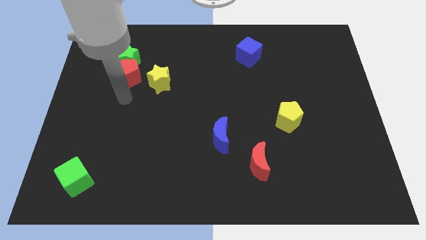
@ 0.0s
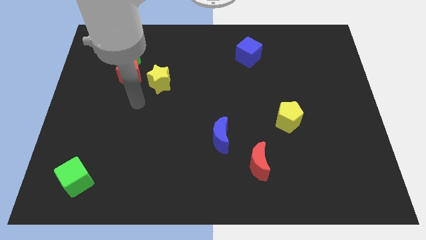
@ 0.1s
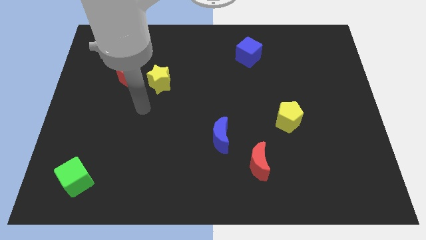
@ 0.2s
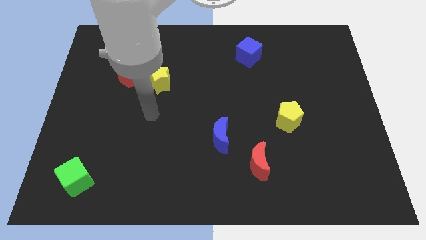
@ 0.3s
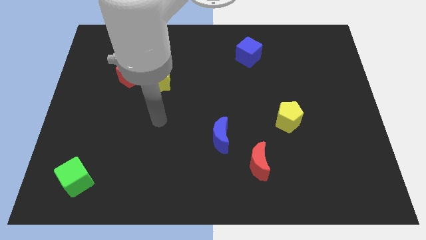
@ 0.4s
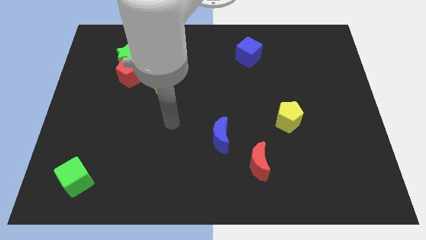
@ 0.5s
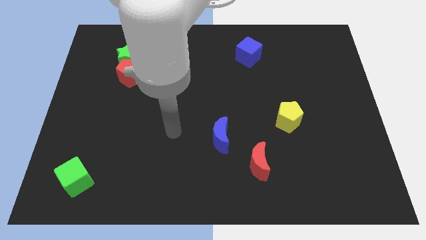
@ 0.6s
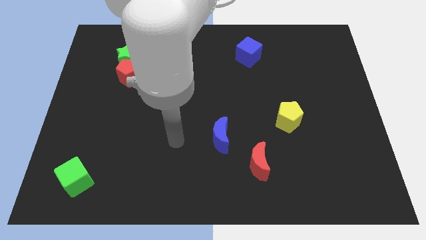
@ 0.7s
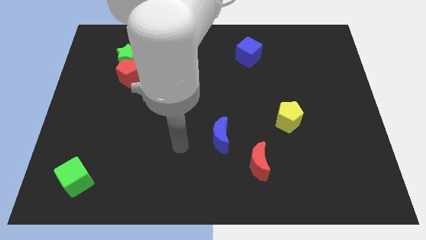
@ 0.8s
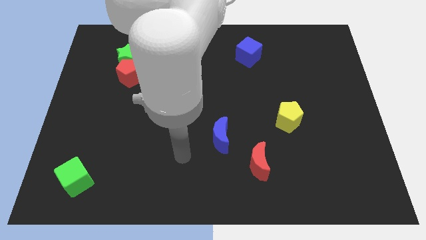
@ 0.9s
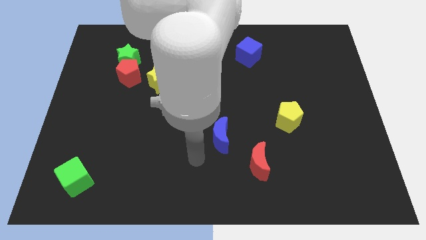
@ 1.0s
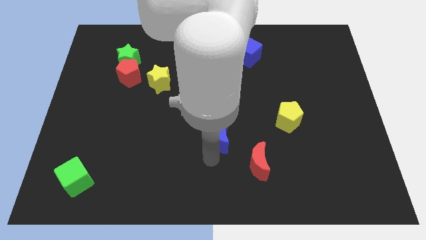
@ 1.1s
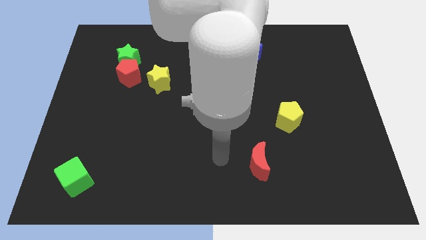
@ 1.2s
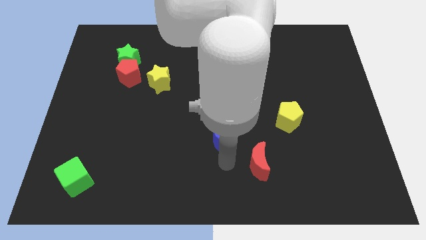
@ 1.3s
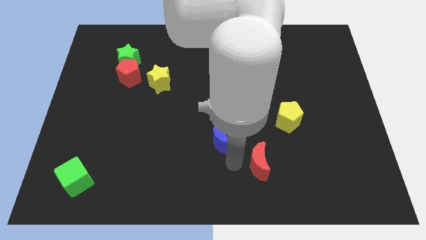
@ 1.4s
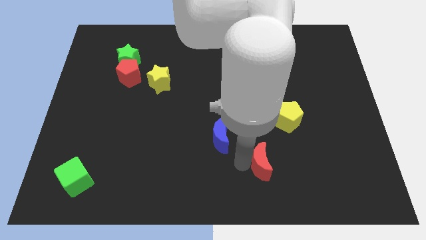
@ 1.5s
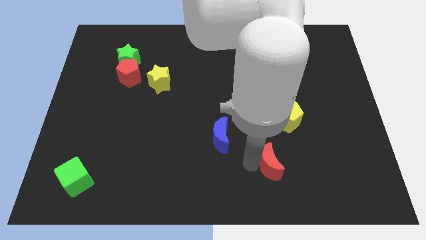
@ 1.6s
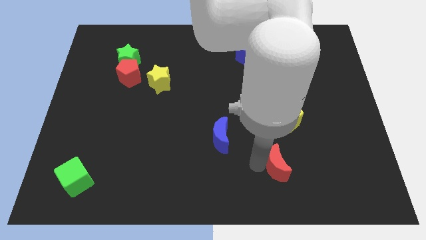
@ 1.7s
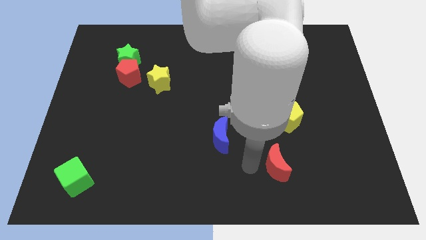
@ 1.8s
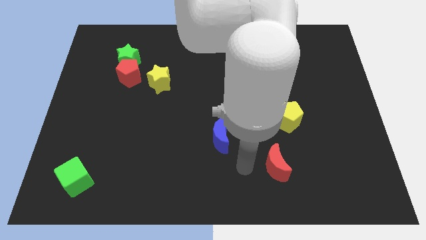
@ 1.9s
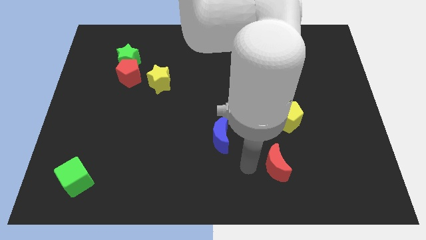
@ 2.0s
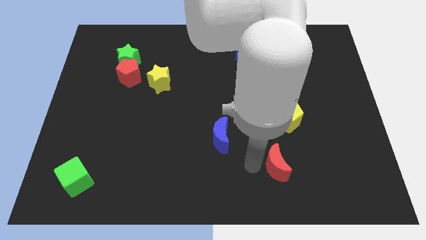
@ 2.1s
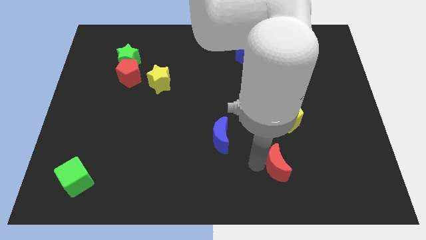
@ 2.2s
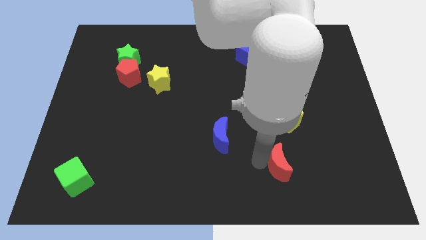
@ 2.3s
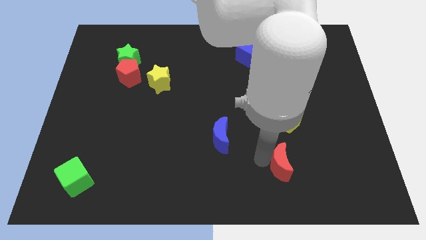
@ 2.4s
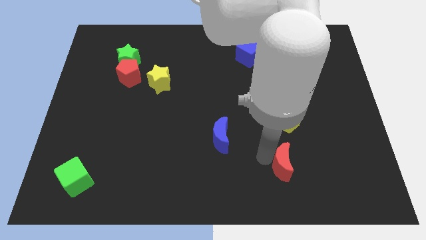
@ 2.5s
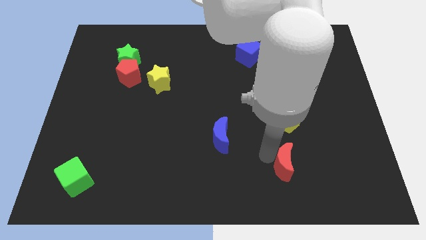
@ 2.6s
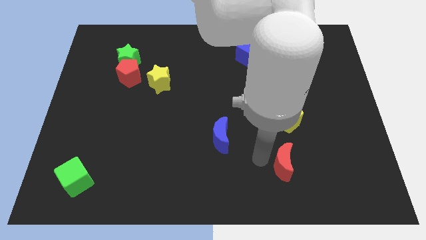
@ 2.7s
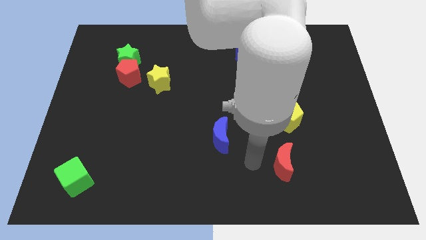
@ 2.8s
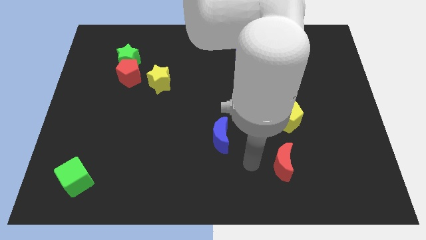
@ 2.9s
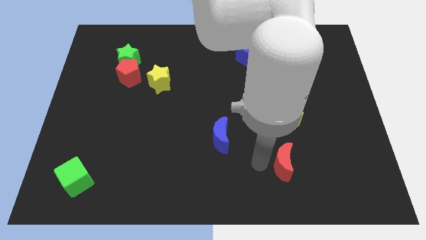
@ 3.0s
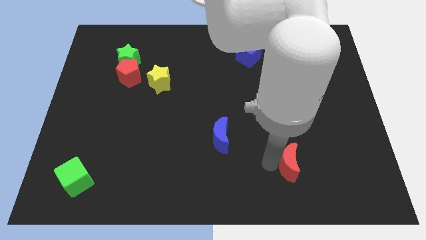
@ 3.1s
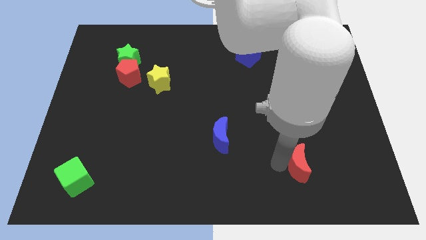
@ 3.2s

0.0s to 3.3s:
slightly slide the red moon to the right

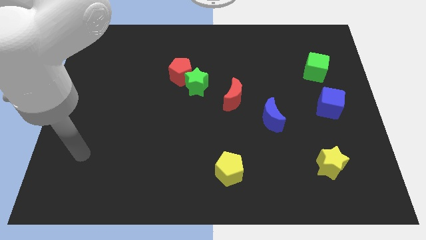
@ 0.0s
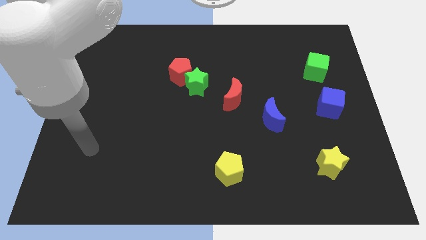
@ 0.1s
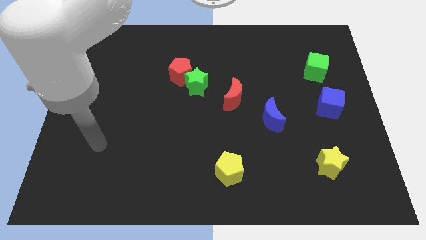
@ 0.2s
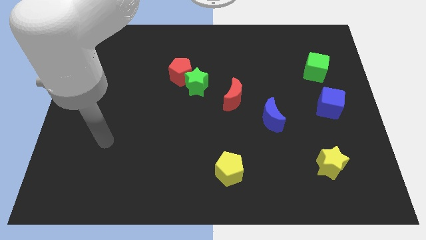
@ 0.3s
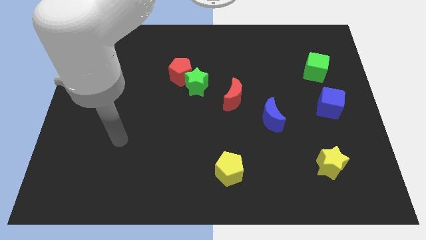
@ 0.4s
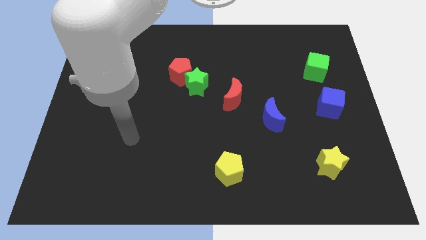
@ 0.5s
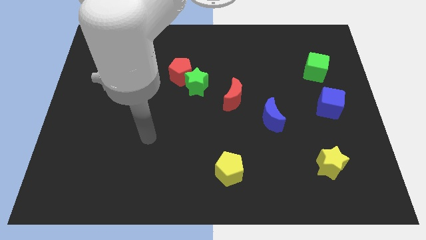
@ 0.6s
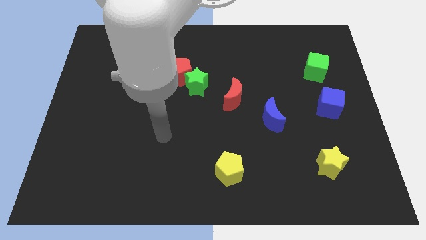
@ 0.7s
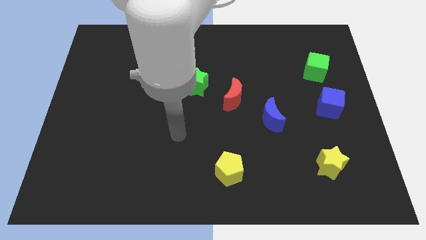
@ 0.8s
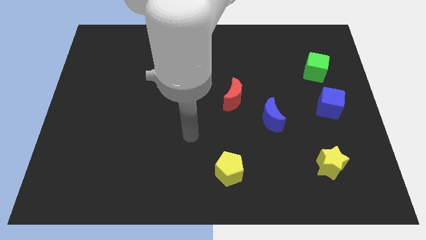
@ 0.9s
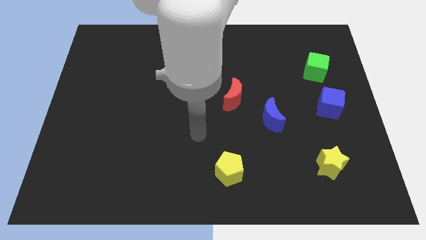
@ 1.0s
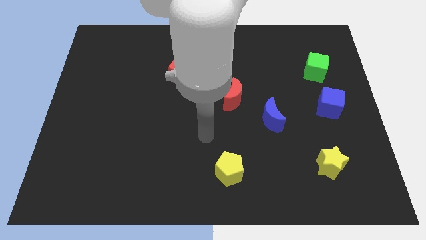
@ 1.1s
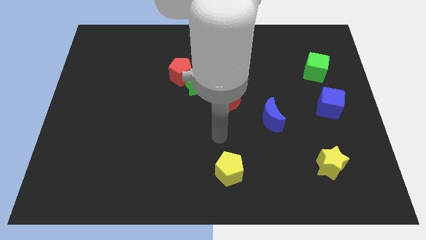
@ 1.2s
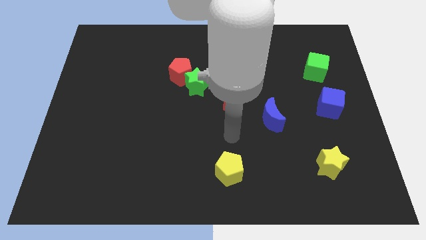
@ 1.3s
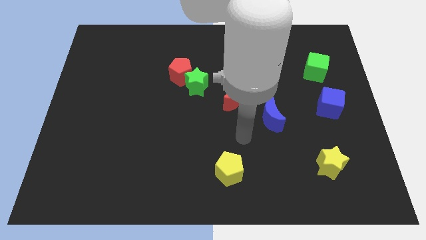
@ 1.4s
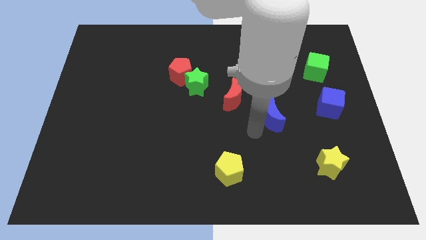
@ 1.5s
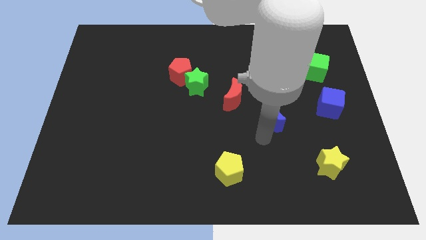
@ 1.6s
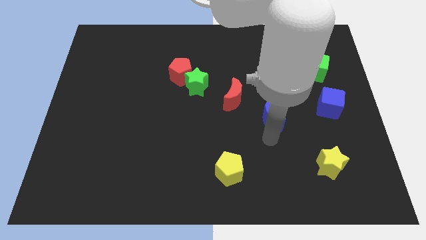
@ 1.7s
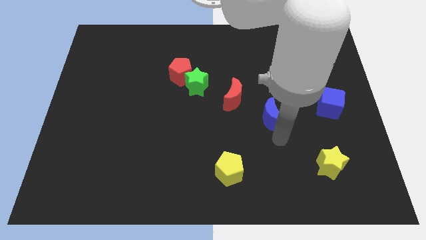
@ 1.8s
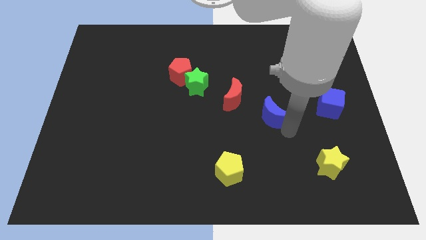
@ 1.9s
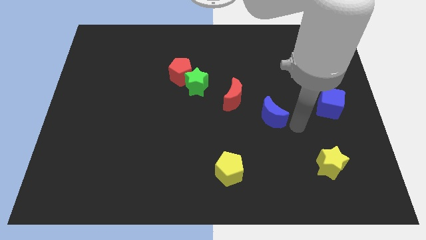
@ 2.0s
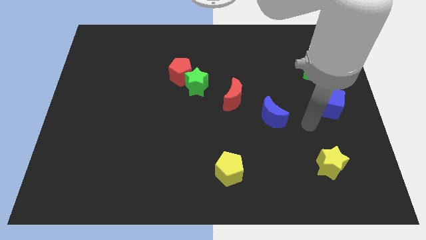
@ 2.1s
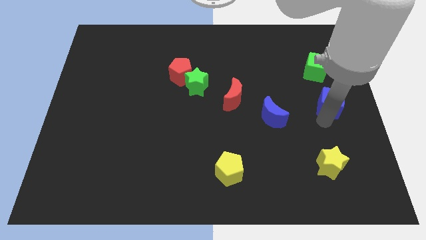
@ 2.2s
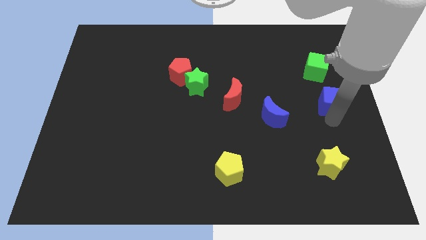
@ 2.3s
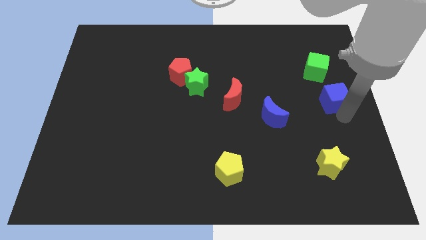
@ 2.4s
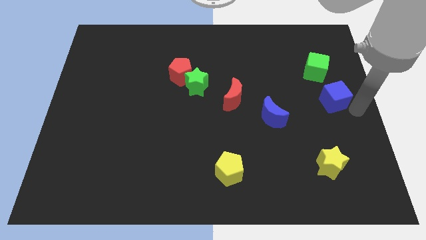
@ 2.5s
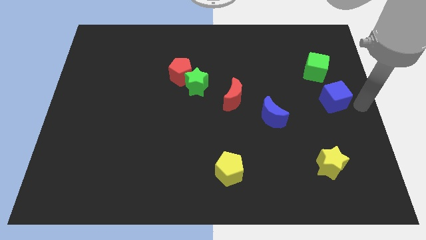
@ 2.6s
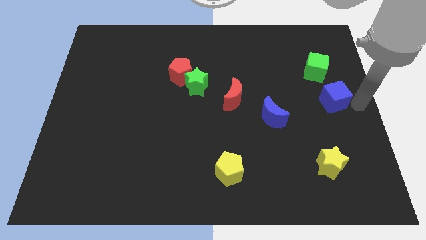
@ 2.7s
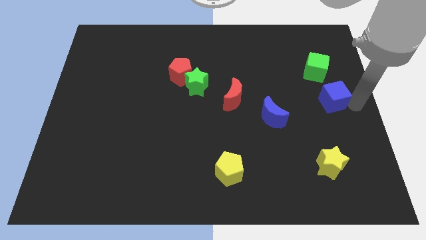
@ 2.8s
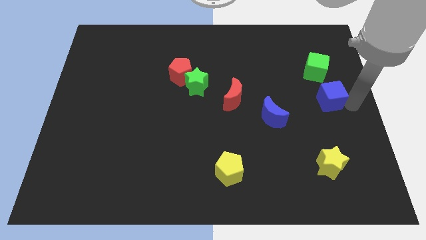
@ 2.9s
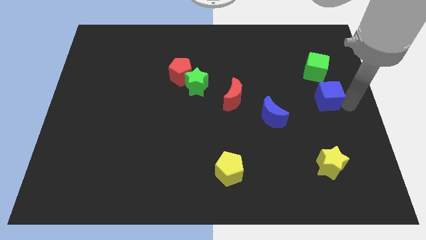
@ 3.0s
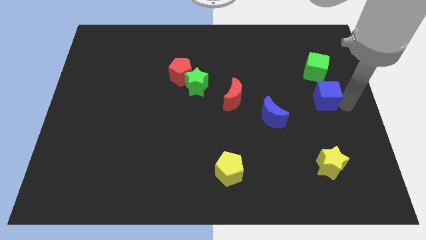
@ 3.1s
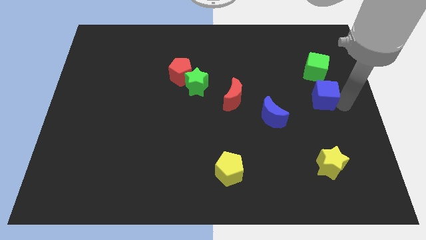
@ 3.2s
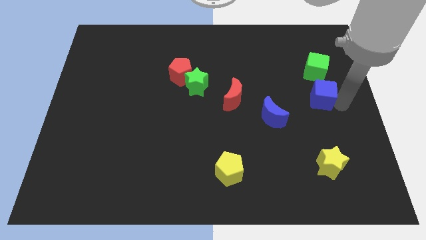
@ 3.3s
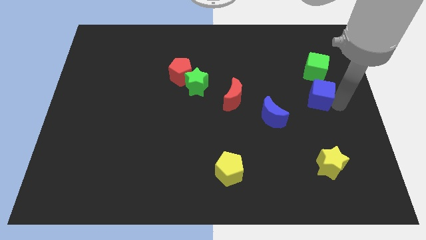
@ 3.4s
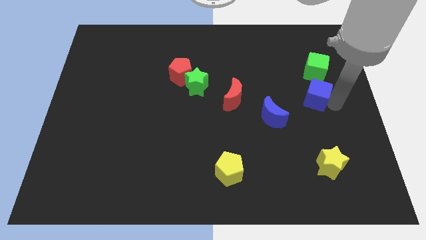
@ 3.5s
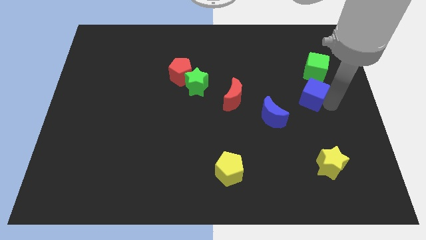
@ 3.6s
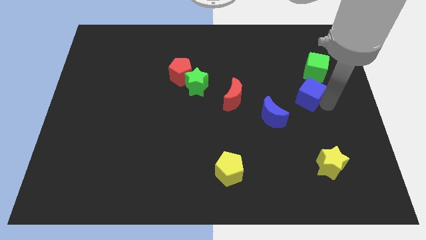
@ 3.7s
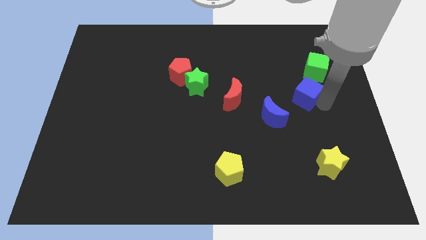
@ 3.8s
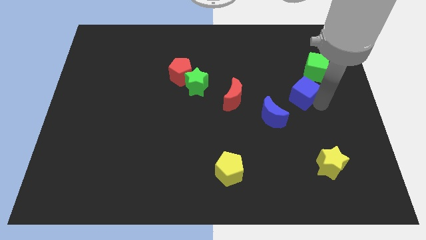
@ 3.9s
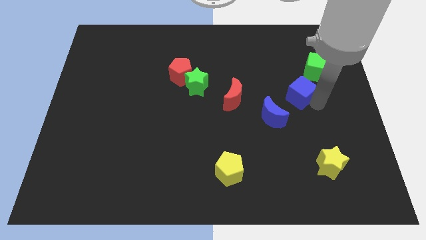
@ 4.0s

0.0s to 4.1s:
push the blue cube up and then left slightly

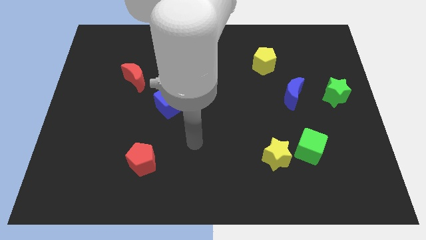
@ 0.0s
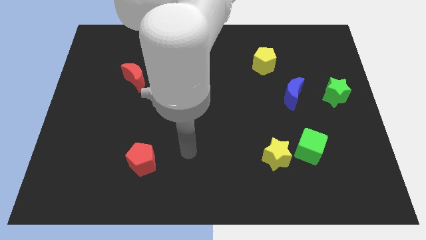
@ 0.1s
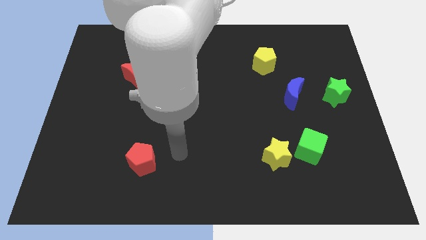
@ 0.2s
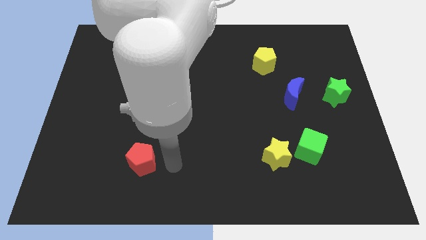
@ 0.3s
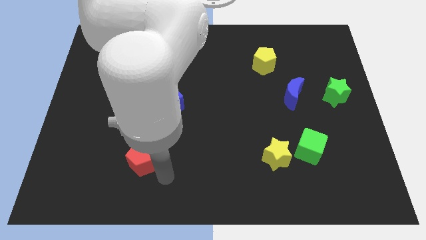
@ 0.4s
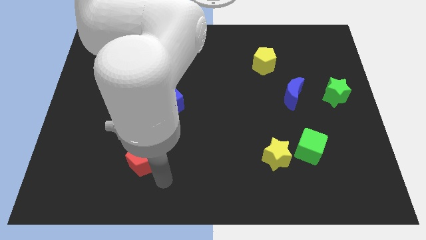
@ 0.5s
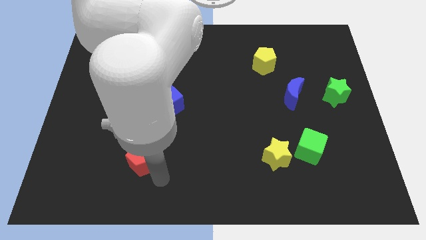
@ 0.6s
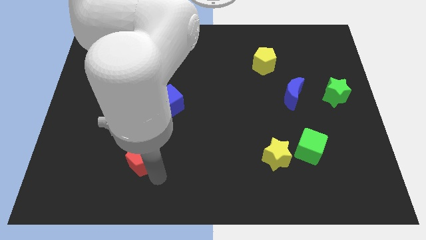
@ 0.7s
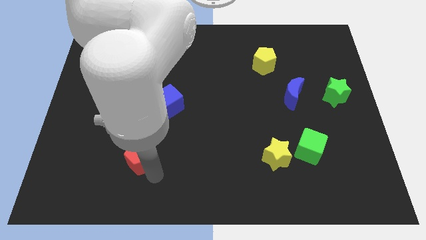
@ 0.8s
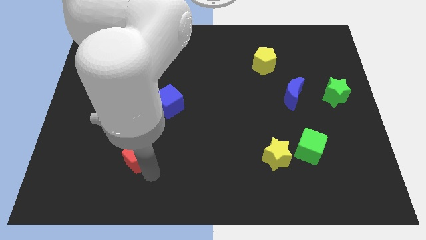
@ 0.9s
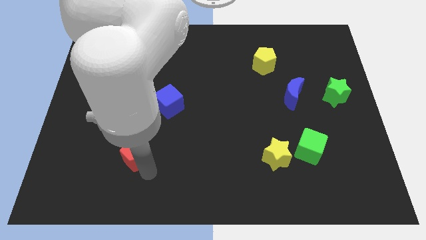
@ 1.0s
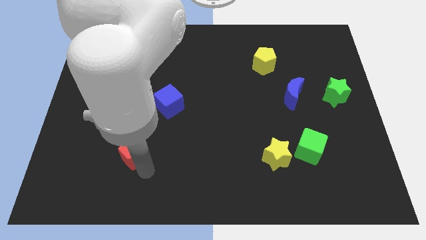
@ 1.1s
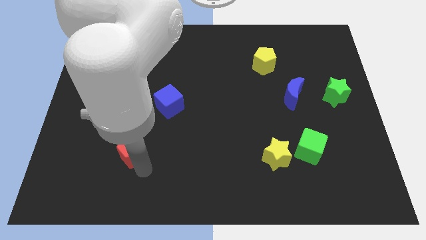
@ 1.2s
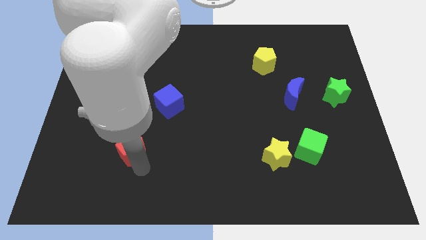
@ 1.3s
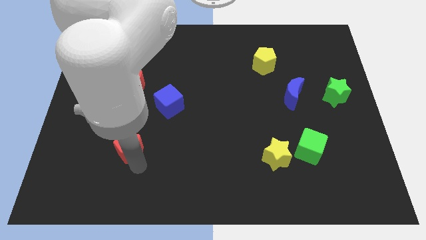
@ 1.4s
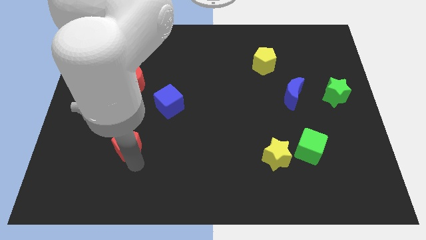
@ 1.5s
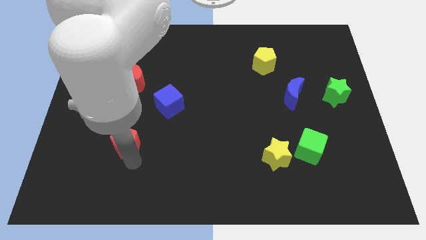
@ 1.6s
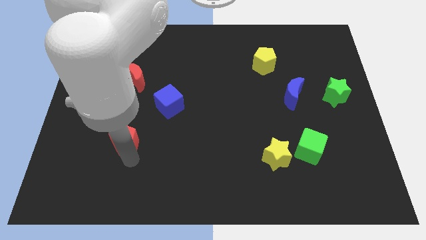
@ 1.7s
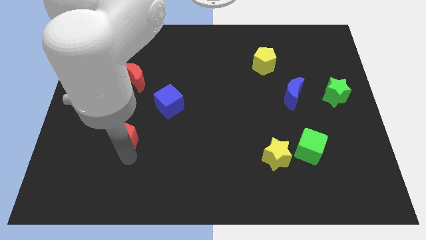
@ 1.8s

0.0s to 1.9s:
slightly slide the red pentagon upwards and left diagonally
